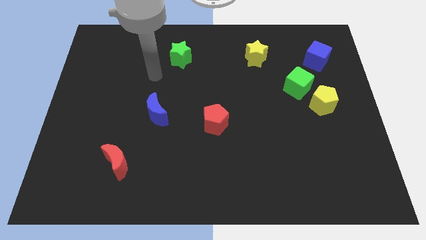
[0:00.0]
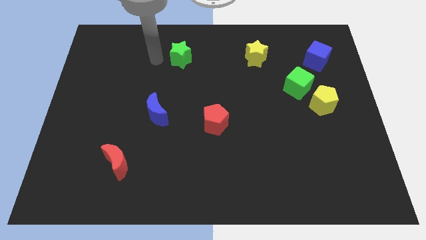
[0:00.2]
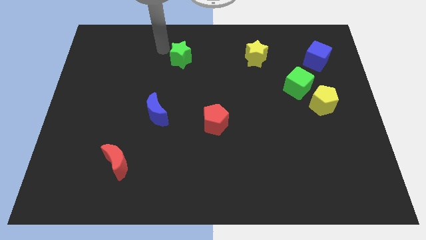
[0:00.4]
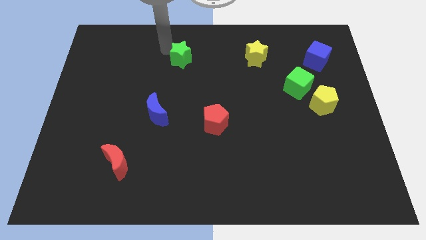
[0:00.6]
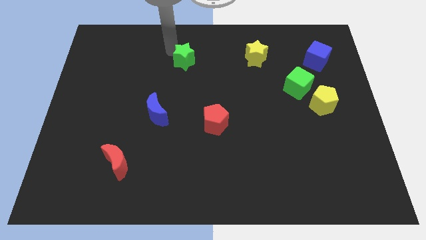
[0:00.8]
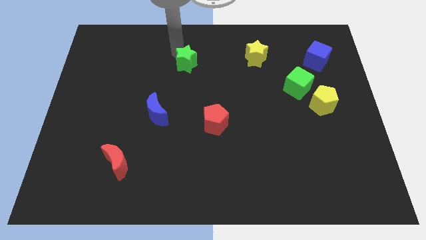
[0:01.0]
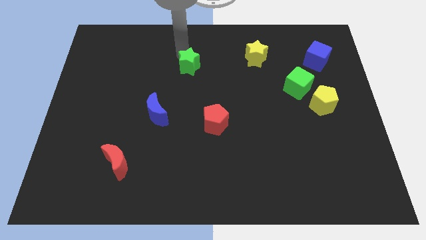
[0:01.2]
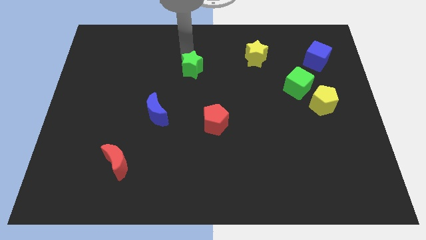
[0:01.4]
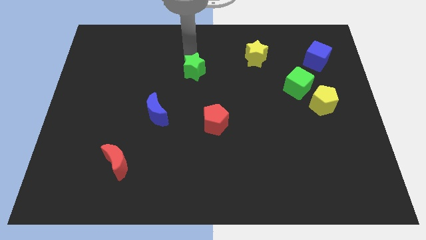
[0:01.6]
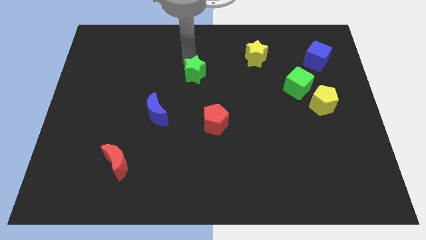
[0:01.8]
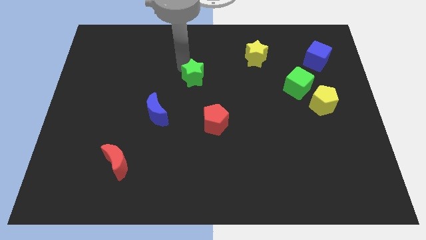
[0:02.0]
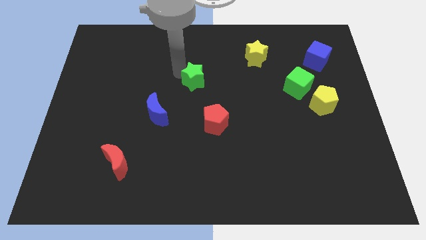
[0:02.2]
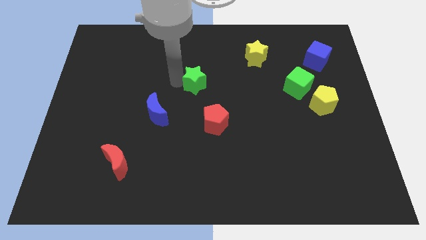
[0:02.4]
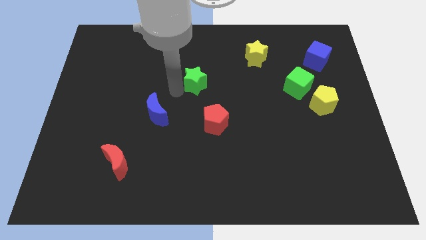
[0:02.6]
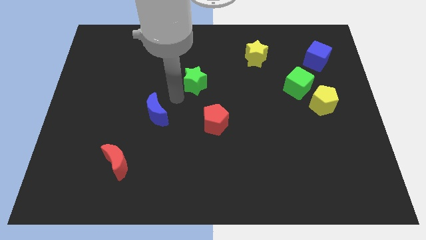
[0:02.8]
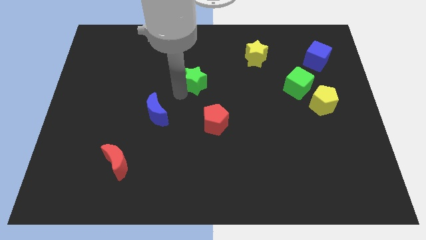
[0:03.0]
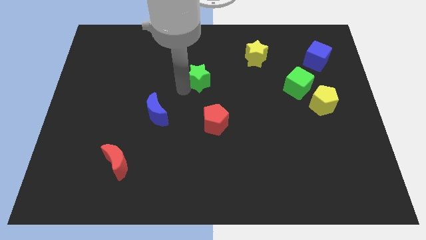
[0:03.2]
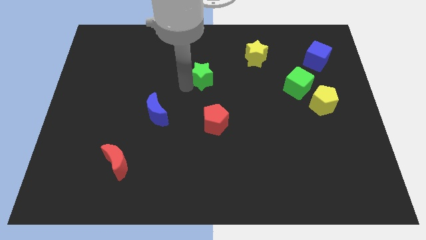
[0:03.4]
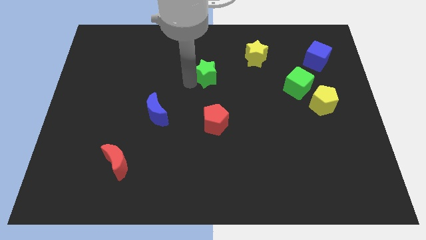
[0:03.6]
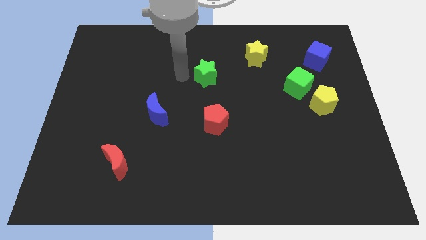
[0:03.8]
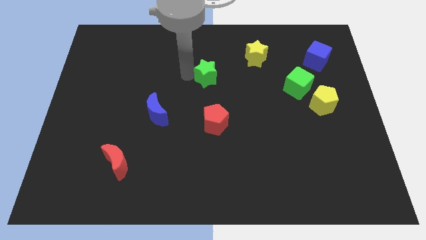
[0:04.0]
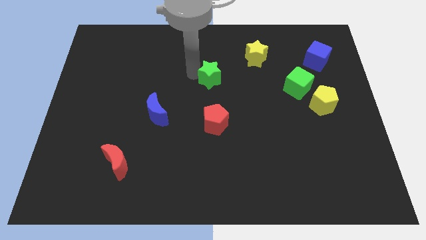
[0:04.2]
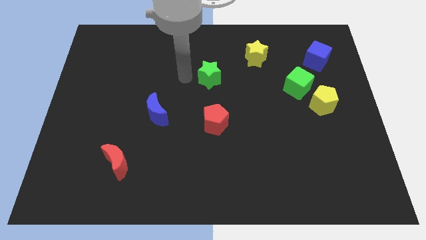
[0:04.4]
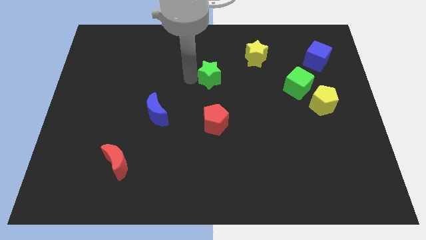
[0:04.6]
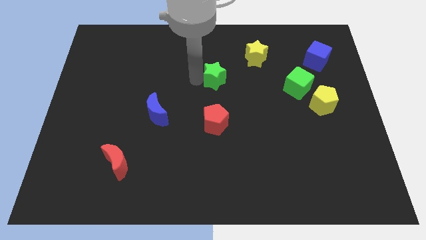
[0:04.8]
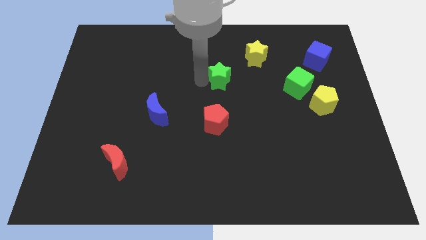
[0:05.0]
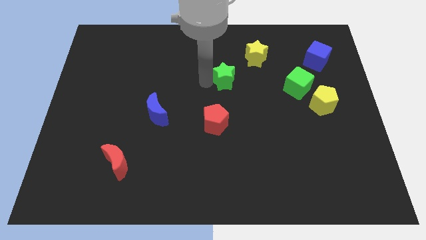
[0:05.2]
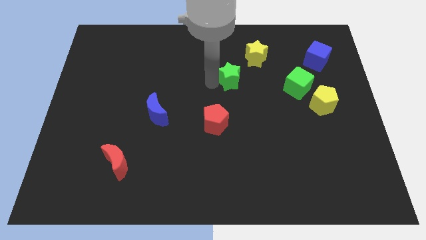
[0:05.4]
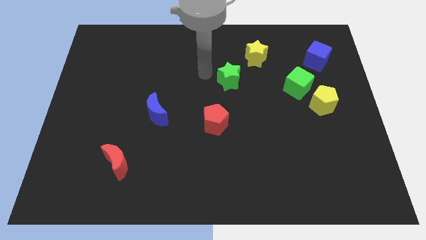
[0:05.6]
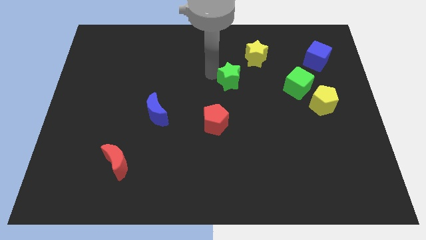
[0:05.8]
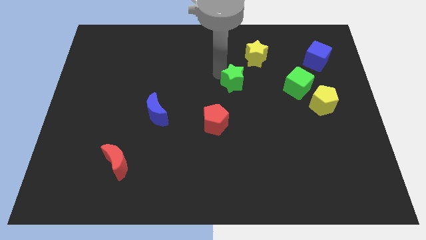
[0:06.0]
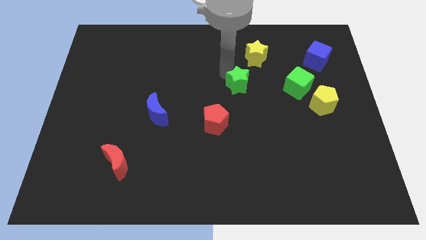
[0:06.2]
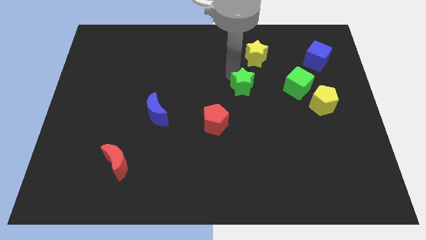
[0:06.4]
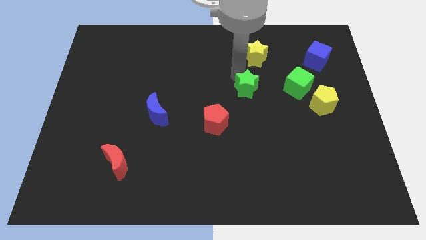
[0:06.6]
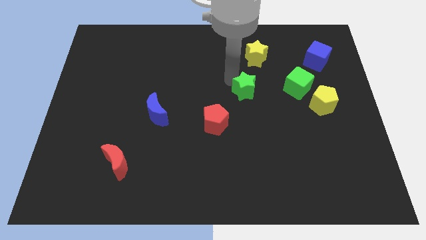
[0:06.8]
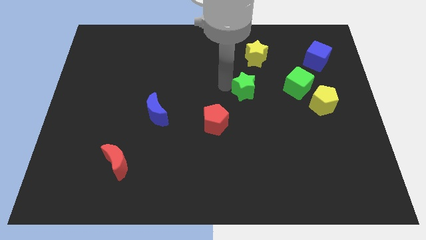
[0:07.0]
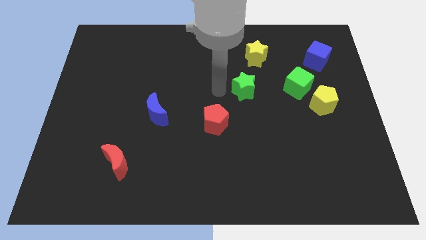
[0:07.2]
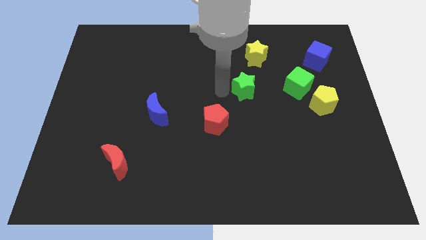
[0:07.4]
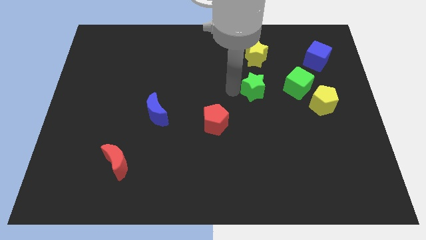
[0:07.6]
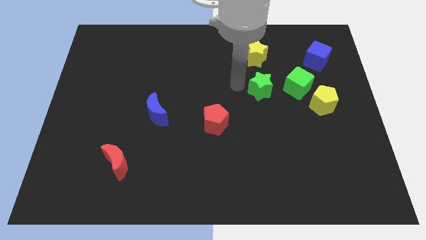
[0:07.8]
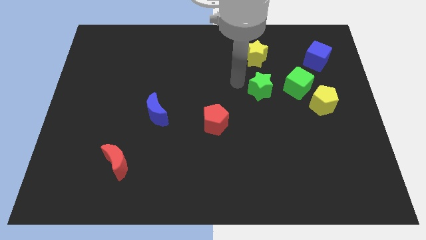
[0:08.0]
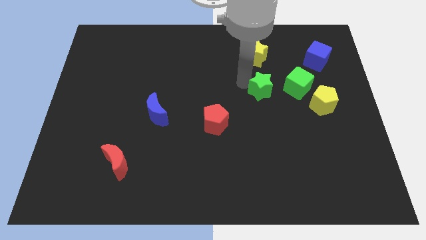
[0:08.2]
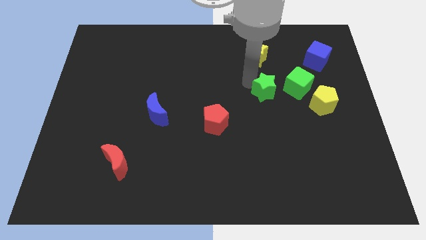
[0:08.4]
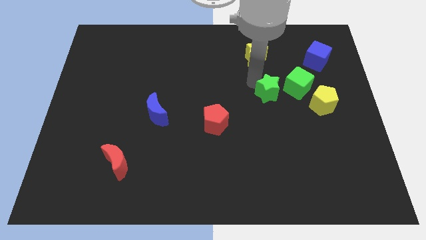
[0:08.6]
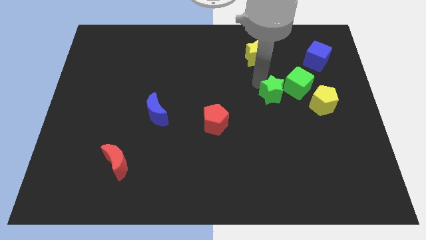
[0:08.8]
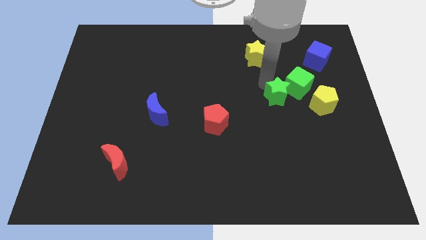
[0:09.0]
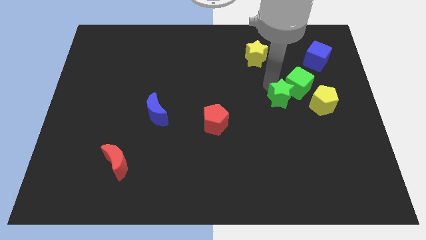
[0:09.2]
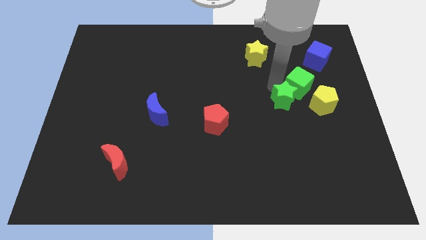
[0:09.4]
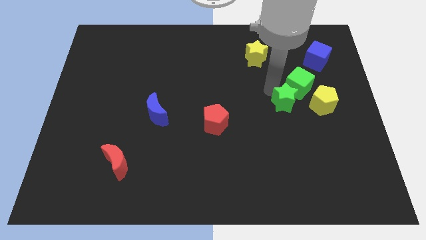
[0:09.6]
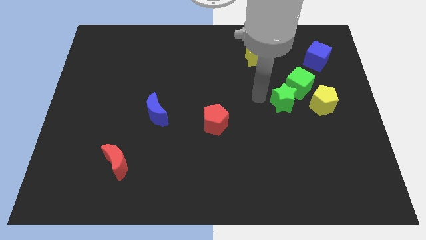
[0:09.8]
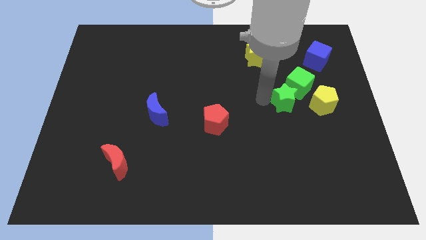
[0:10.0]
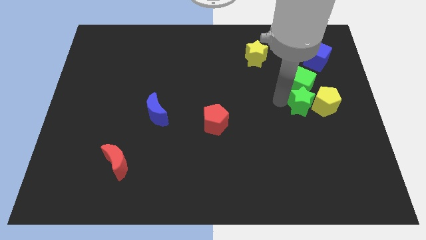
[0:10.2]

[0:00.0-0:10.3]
put the green star close to the yellow pentagon

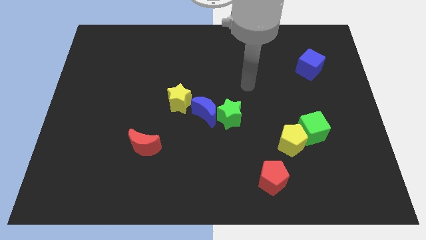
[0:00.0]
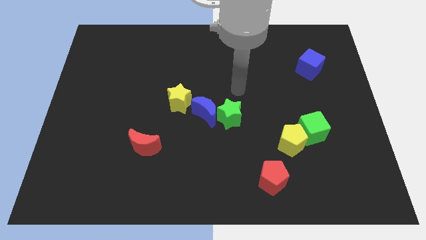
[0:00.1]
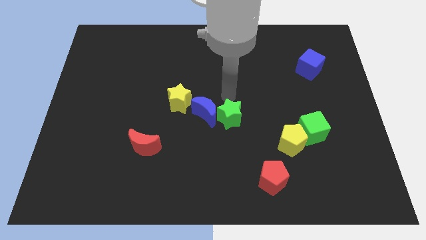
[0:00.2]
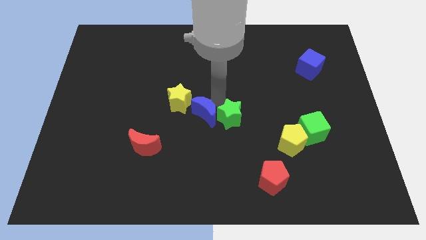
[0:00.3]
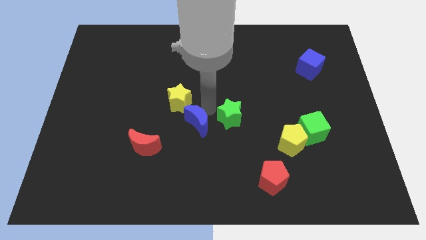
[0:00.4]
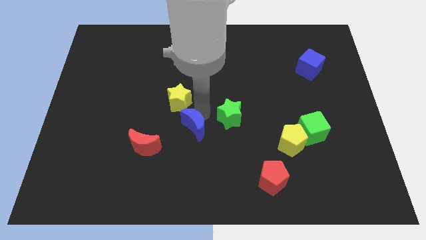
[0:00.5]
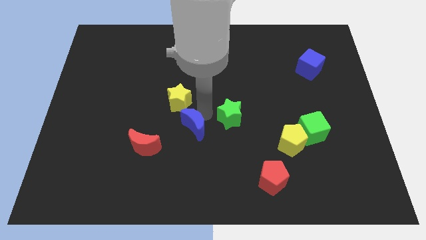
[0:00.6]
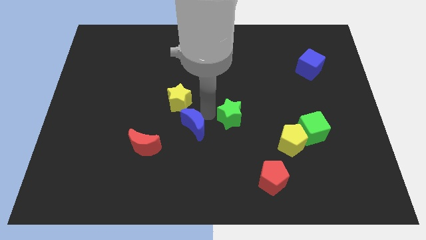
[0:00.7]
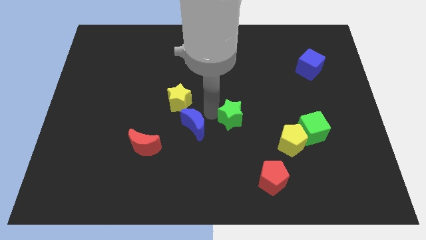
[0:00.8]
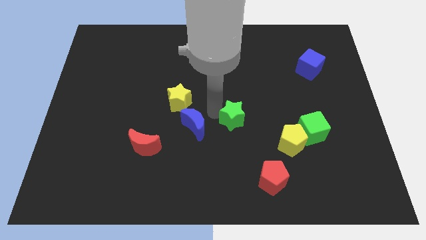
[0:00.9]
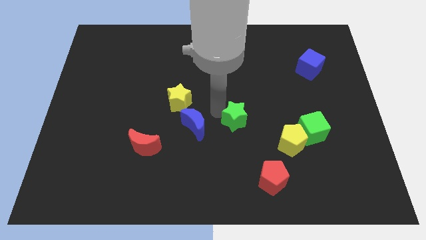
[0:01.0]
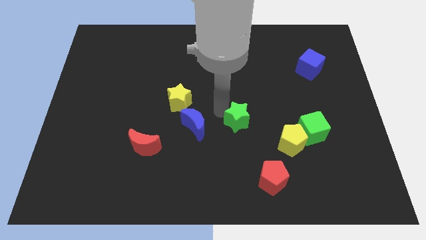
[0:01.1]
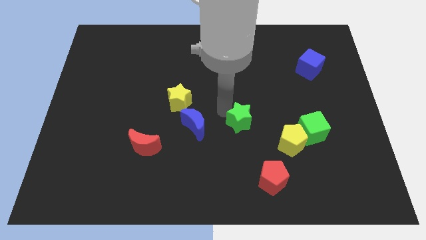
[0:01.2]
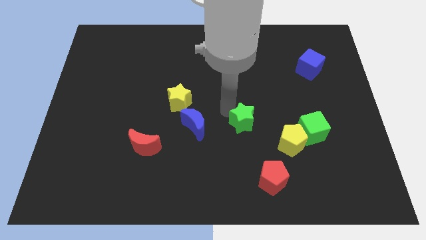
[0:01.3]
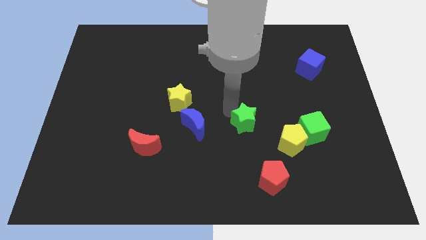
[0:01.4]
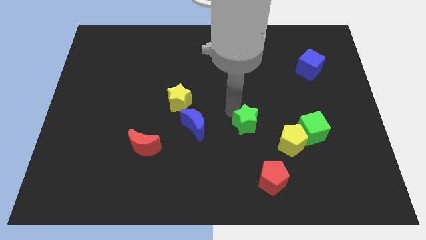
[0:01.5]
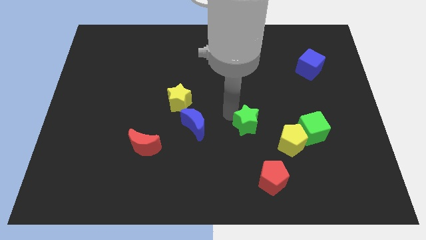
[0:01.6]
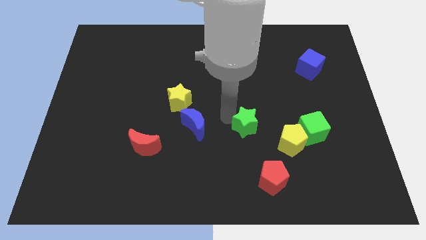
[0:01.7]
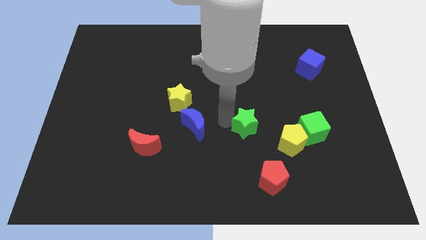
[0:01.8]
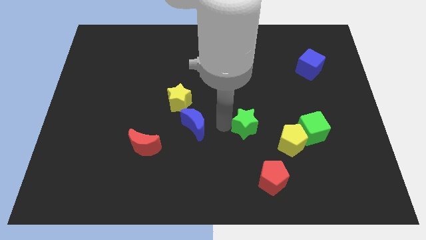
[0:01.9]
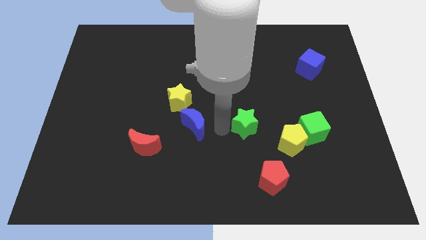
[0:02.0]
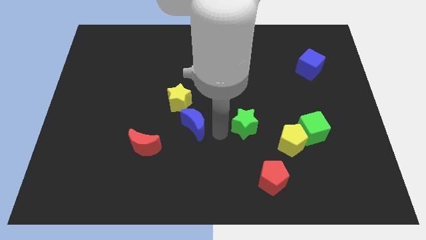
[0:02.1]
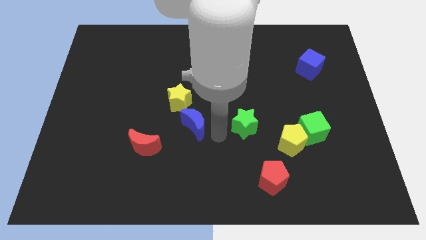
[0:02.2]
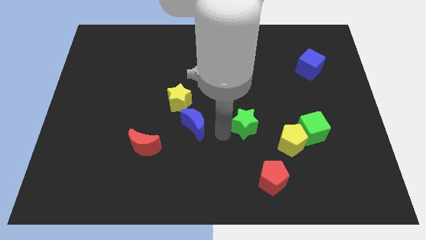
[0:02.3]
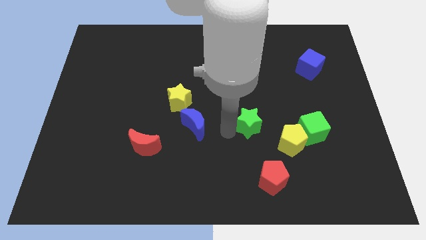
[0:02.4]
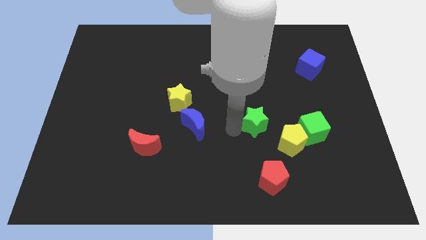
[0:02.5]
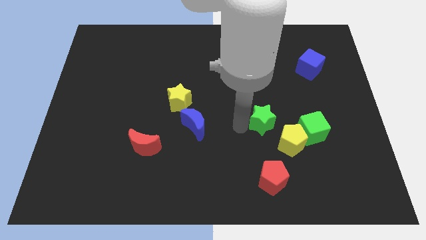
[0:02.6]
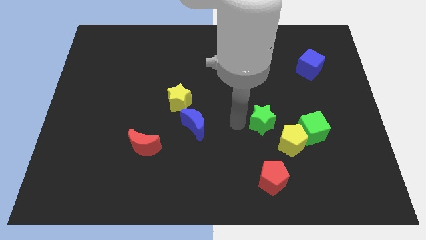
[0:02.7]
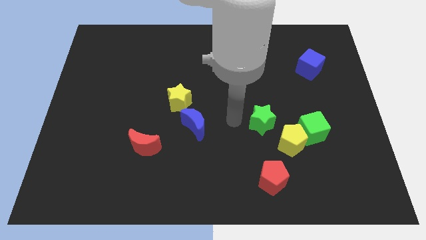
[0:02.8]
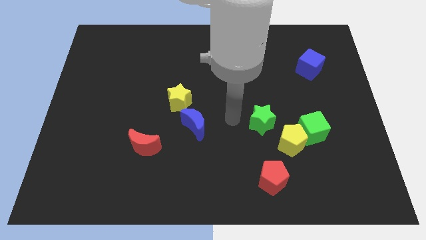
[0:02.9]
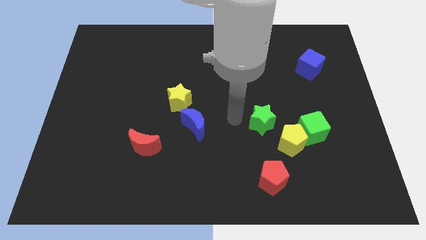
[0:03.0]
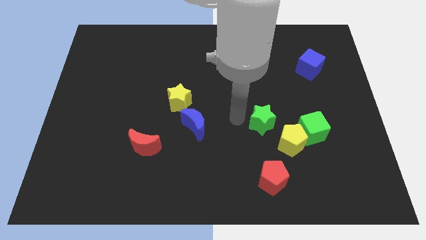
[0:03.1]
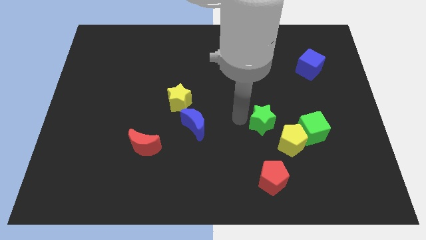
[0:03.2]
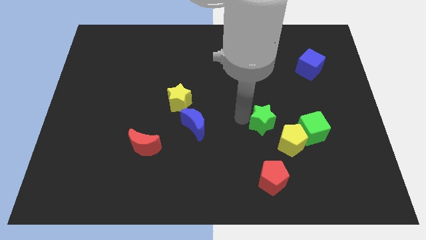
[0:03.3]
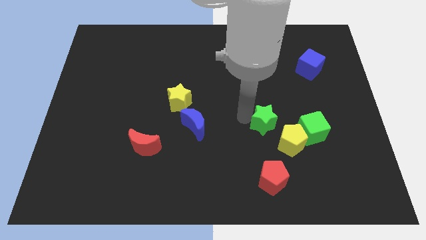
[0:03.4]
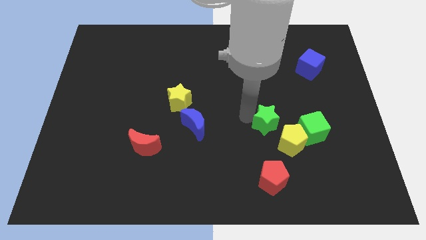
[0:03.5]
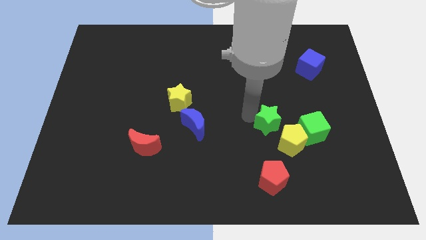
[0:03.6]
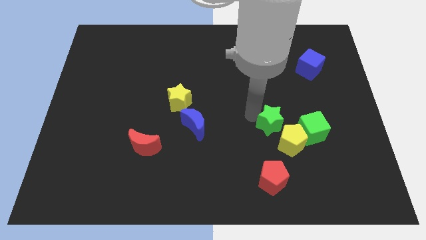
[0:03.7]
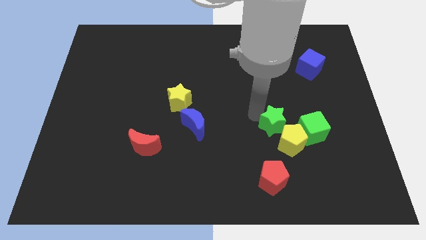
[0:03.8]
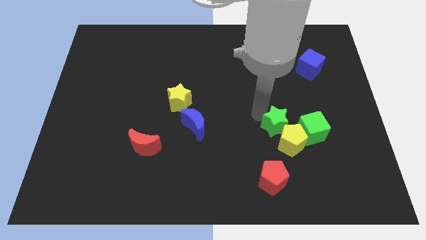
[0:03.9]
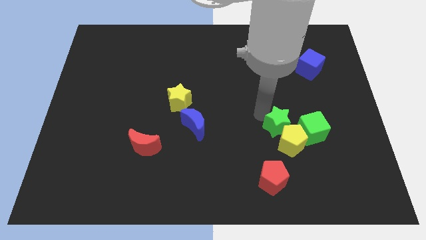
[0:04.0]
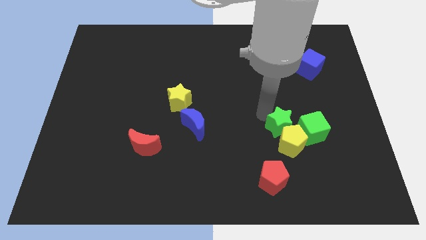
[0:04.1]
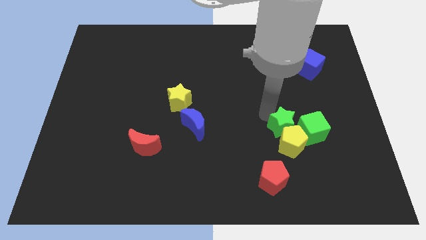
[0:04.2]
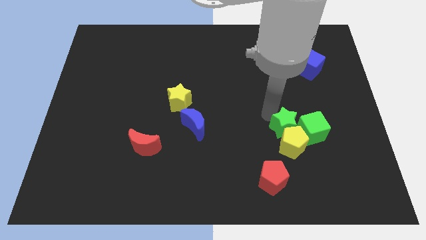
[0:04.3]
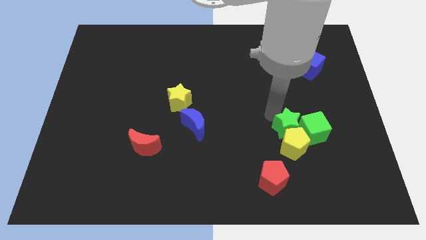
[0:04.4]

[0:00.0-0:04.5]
push the green star to the green cube
